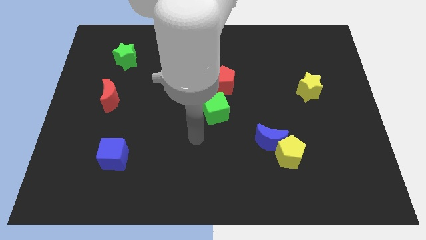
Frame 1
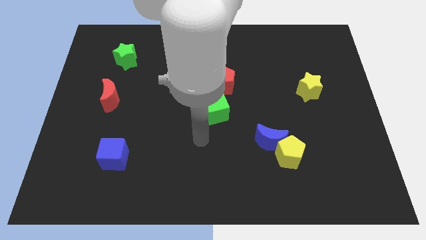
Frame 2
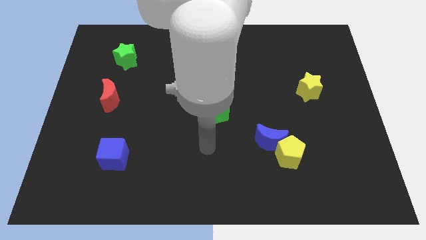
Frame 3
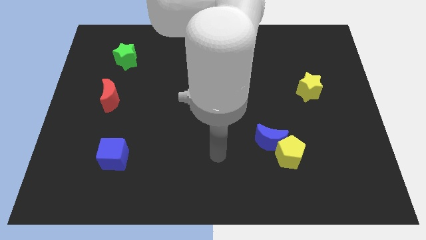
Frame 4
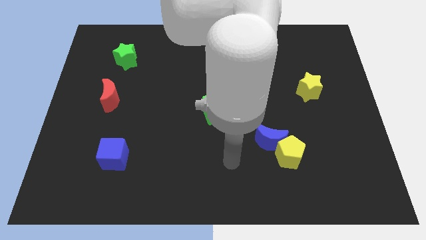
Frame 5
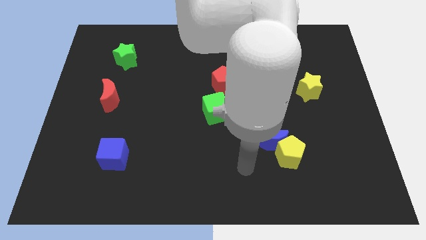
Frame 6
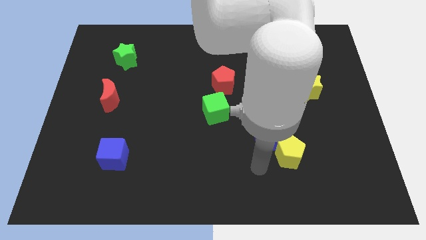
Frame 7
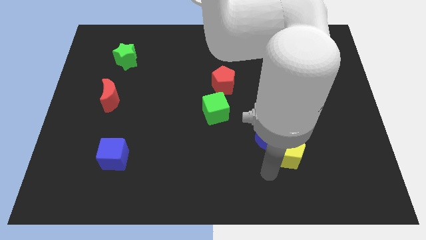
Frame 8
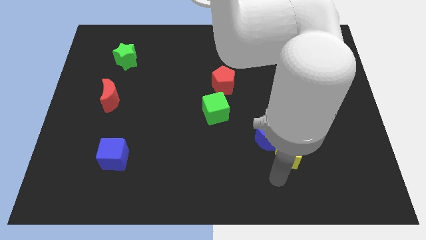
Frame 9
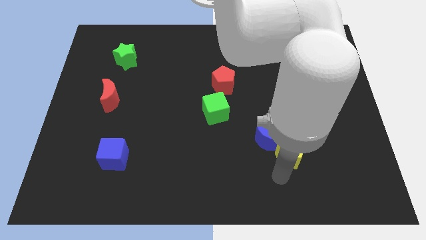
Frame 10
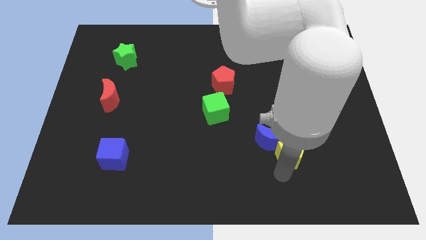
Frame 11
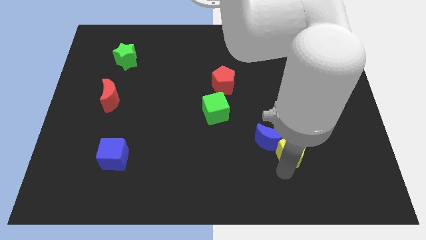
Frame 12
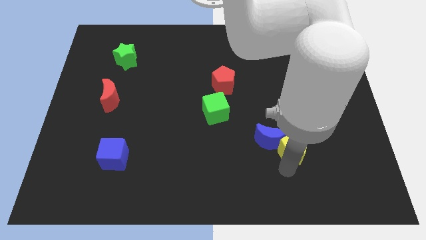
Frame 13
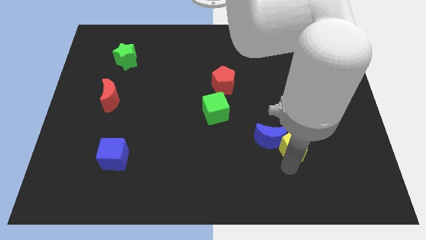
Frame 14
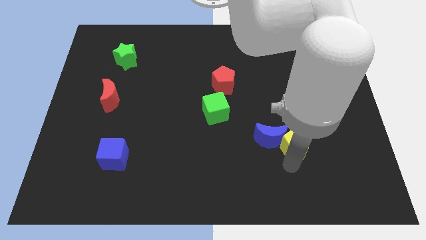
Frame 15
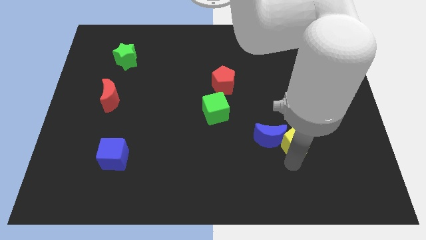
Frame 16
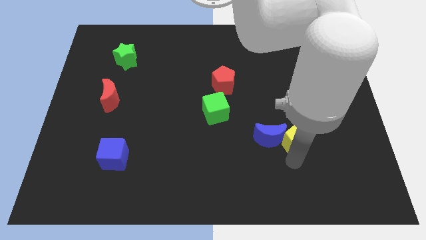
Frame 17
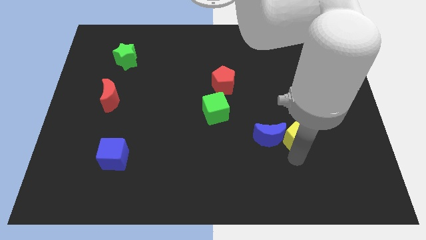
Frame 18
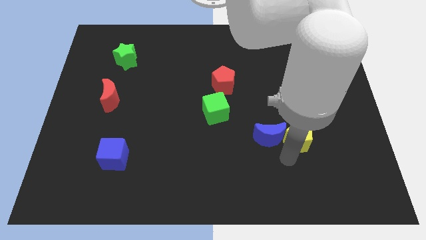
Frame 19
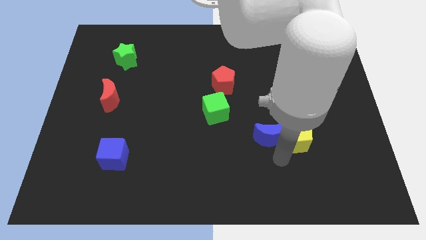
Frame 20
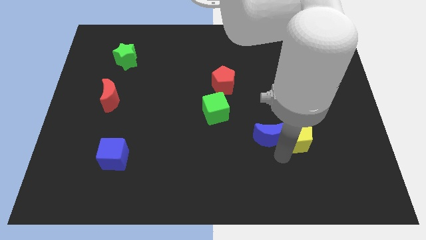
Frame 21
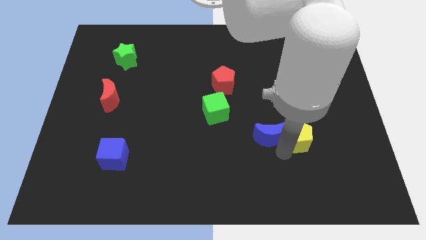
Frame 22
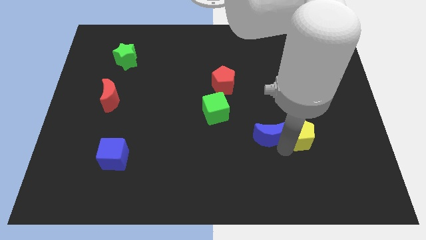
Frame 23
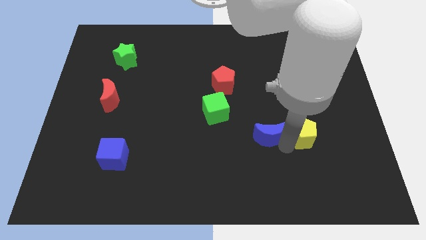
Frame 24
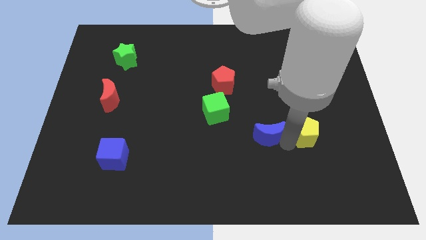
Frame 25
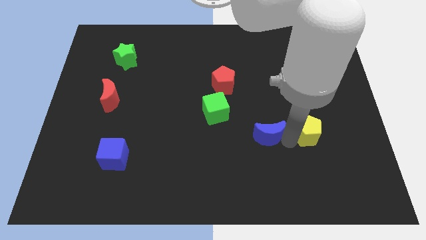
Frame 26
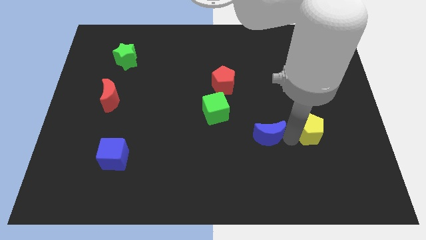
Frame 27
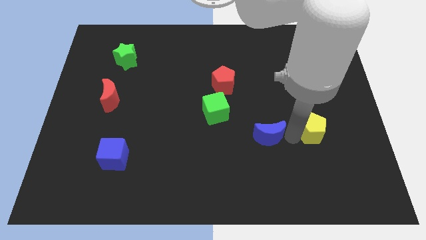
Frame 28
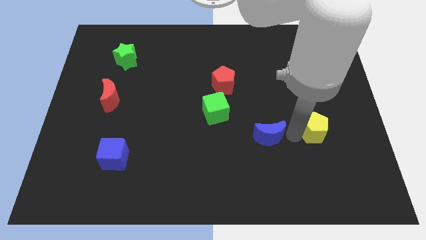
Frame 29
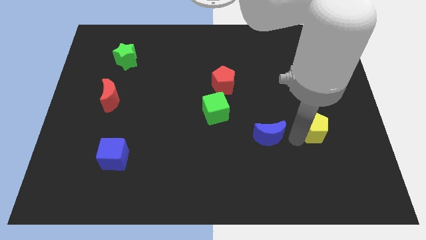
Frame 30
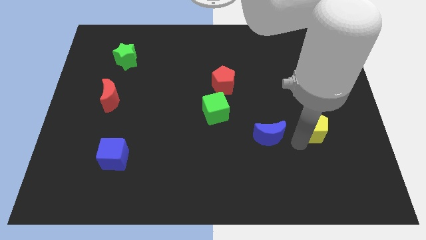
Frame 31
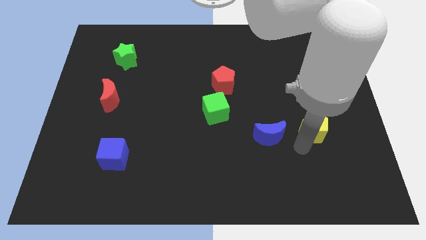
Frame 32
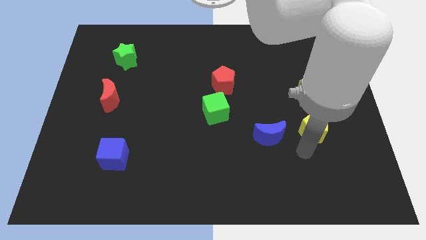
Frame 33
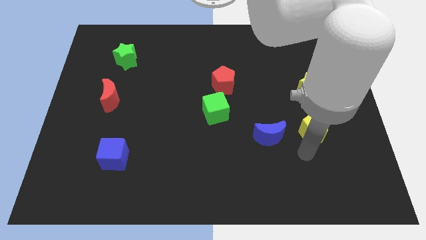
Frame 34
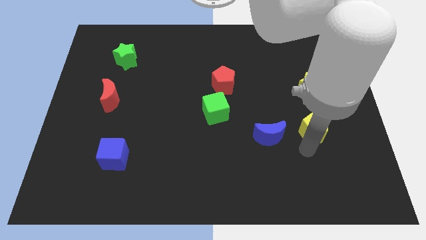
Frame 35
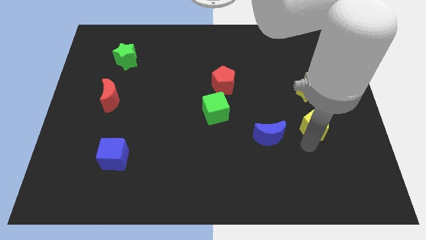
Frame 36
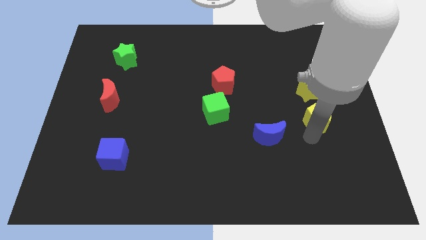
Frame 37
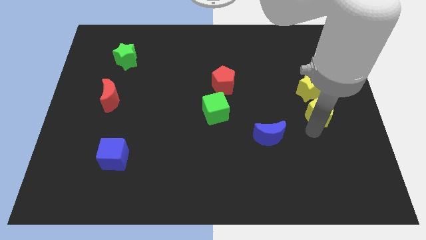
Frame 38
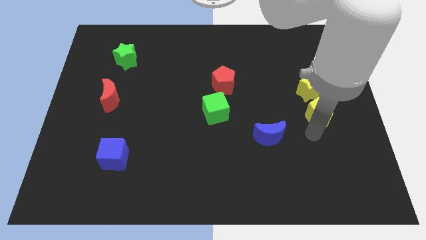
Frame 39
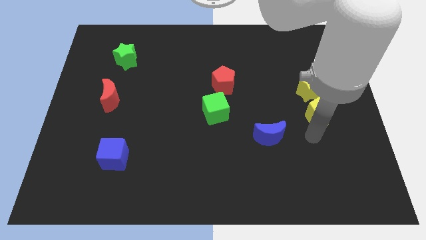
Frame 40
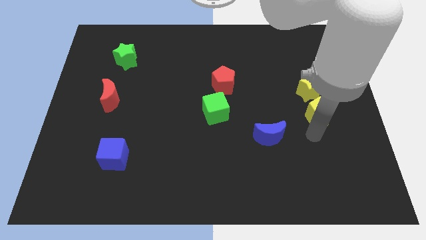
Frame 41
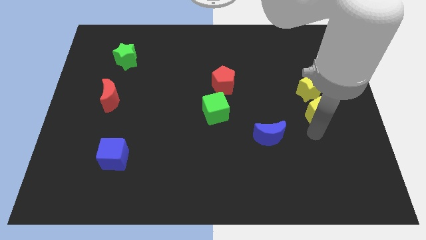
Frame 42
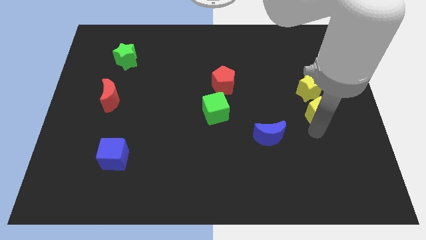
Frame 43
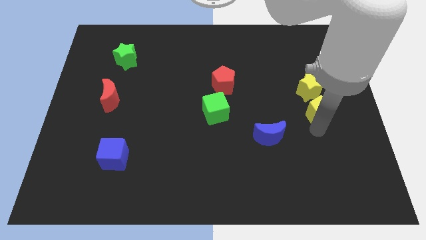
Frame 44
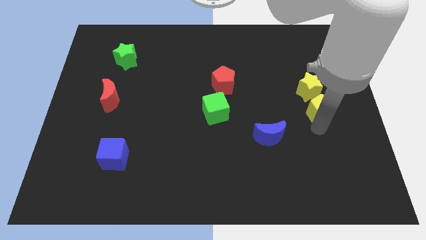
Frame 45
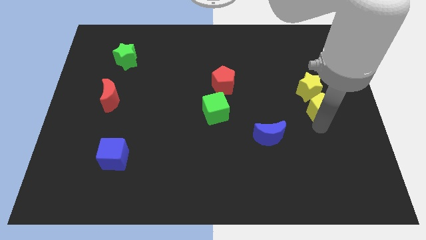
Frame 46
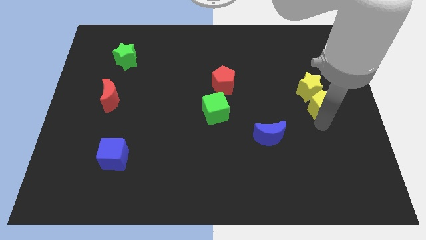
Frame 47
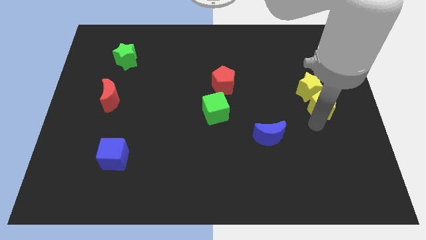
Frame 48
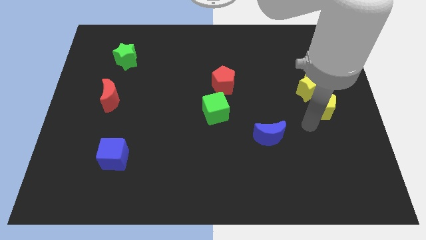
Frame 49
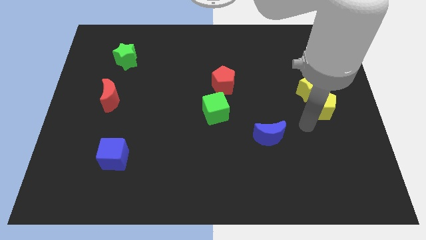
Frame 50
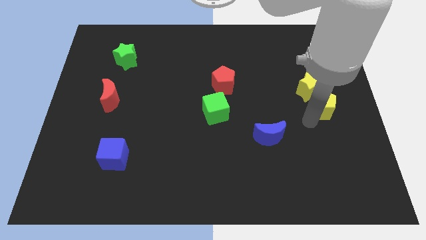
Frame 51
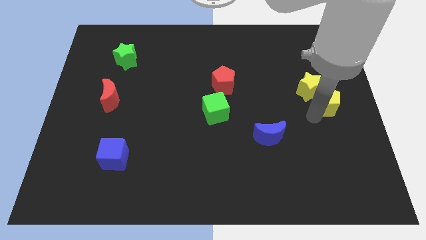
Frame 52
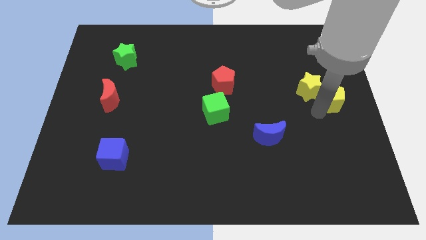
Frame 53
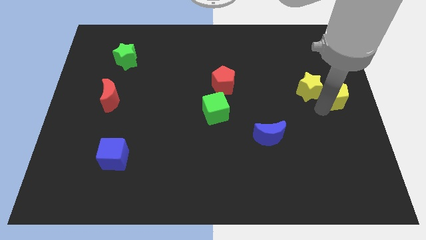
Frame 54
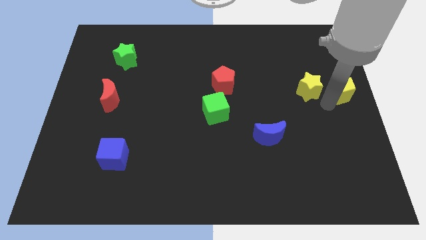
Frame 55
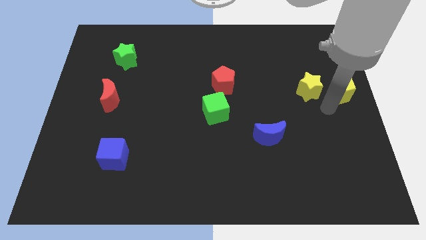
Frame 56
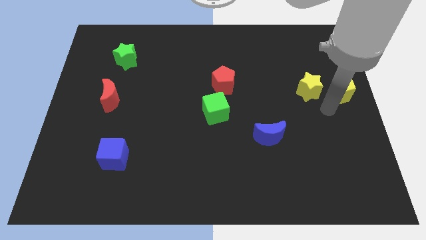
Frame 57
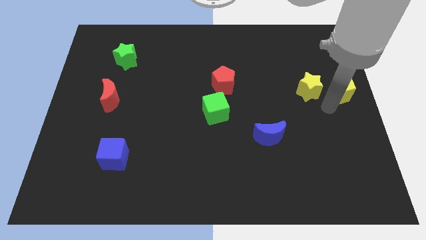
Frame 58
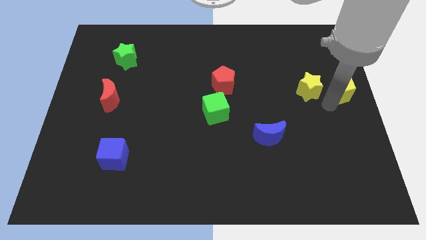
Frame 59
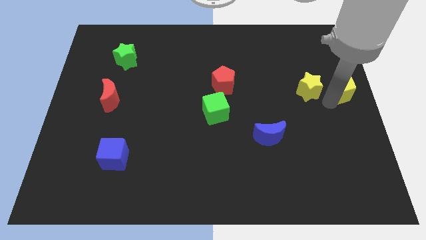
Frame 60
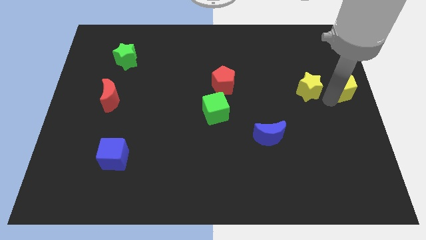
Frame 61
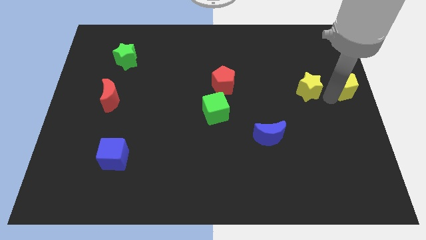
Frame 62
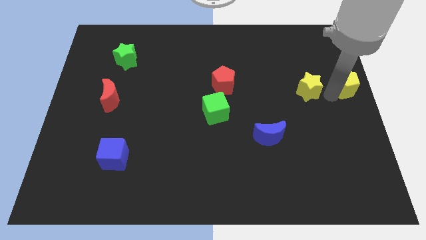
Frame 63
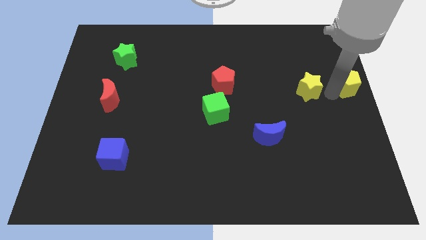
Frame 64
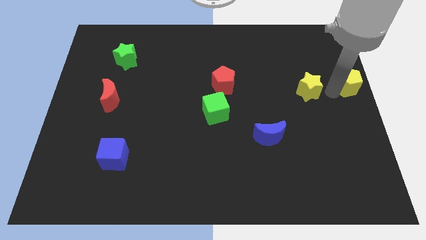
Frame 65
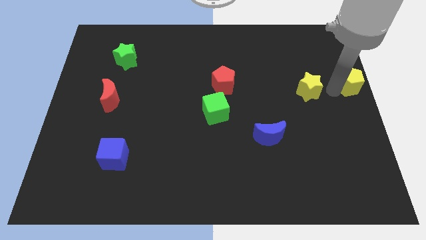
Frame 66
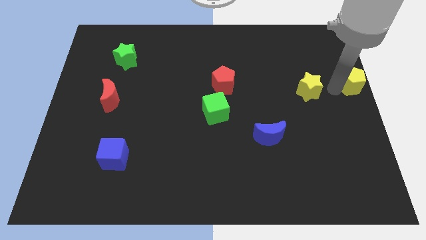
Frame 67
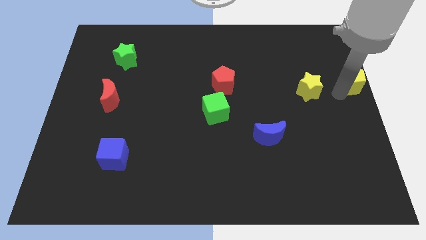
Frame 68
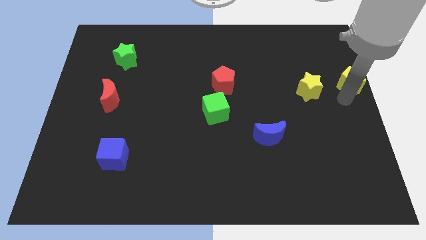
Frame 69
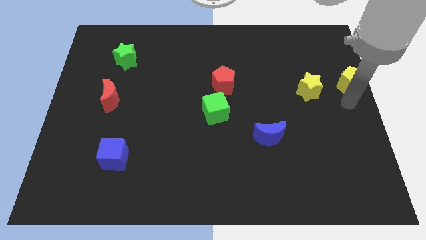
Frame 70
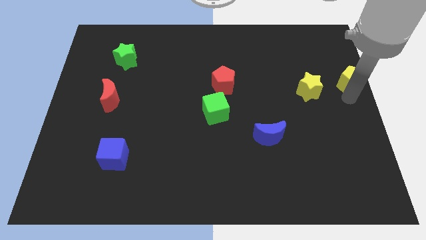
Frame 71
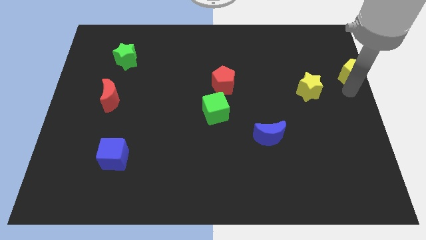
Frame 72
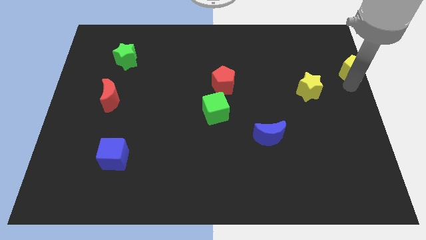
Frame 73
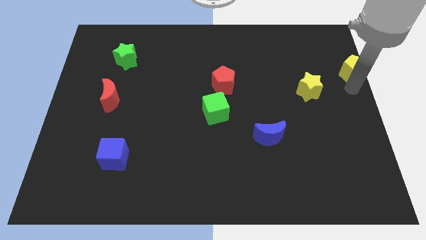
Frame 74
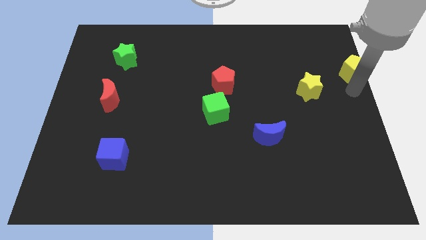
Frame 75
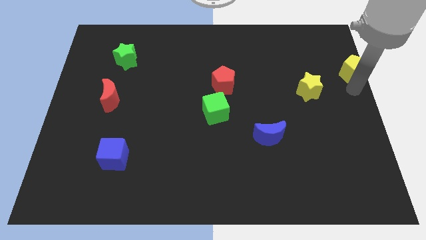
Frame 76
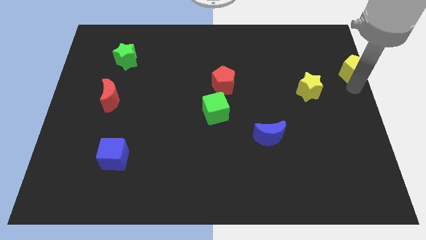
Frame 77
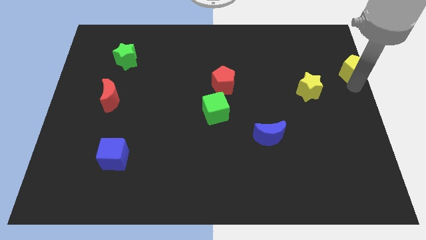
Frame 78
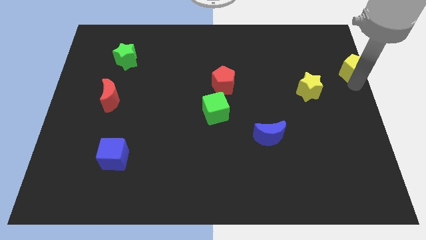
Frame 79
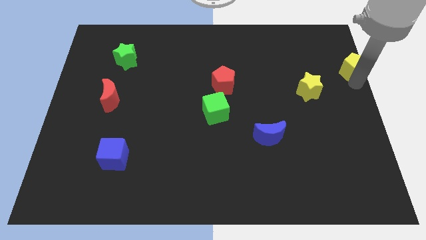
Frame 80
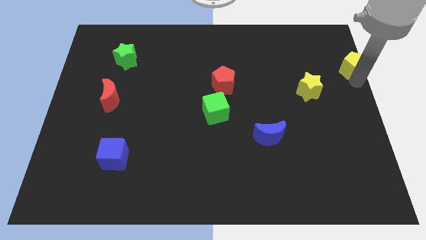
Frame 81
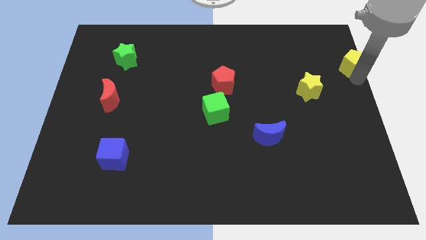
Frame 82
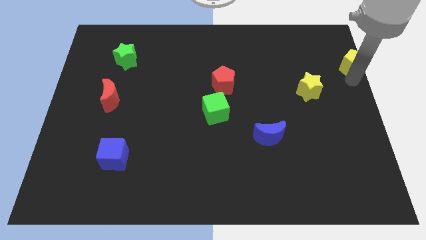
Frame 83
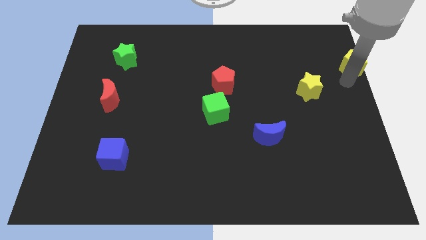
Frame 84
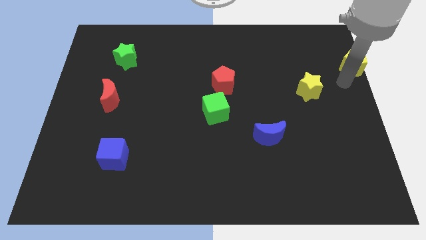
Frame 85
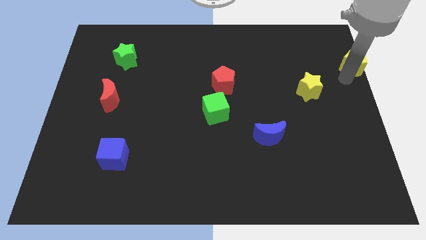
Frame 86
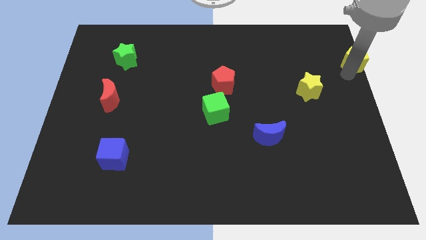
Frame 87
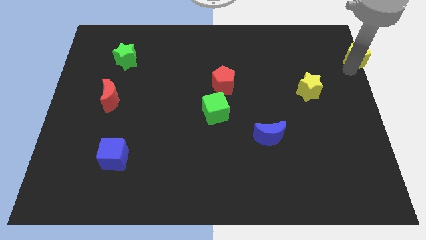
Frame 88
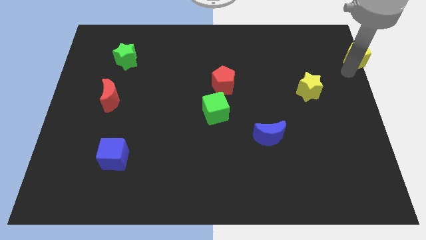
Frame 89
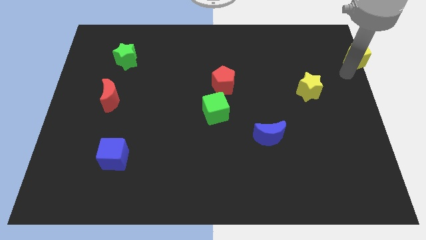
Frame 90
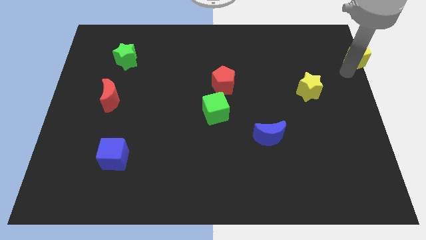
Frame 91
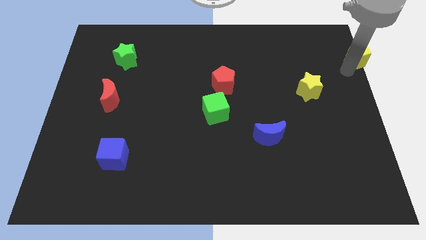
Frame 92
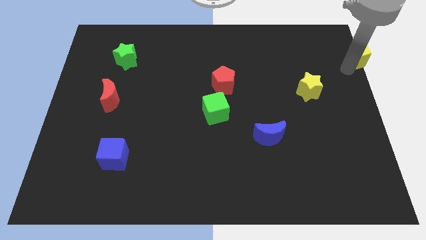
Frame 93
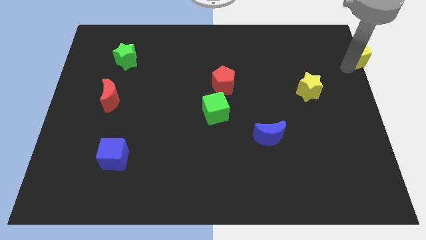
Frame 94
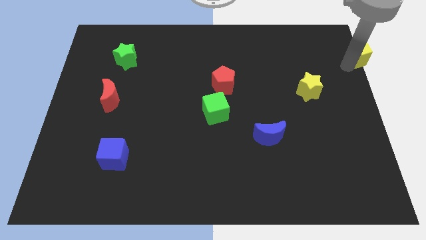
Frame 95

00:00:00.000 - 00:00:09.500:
move the yellow pentagon to the upper right corner
